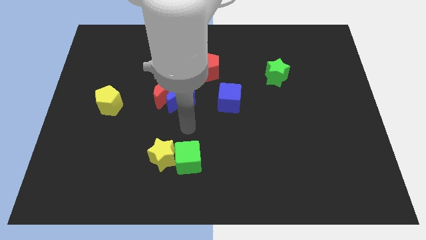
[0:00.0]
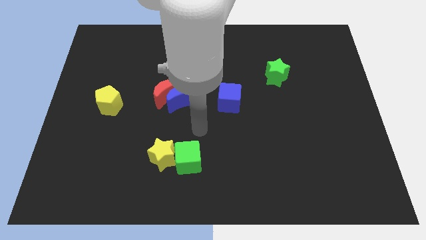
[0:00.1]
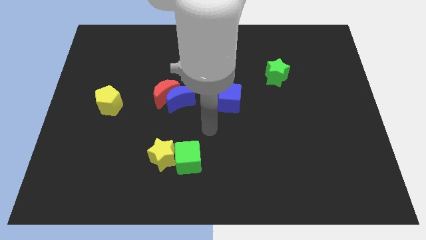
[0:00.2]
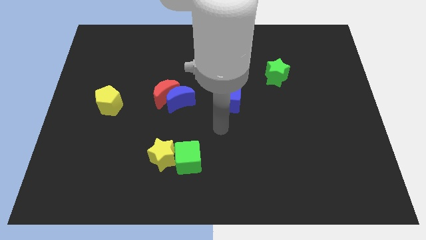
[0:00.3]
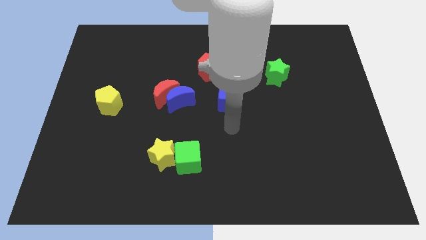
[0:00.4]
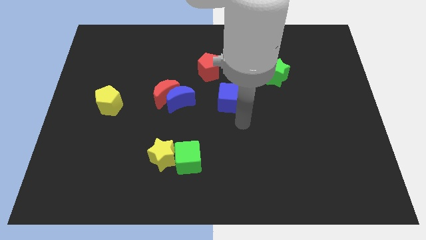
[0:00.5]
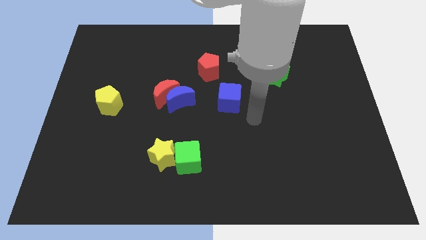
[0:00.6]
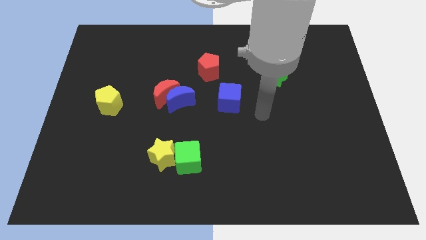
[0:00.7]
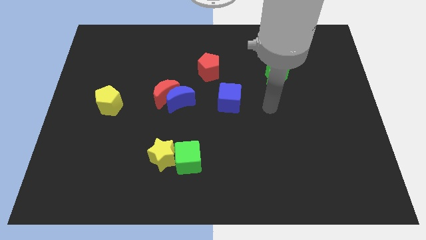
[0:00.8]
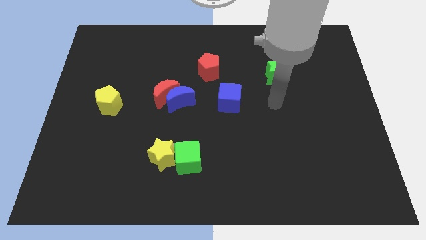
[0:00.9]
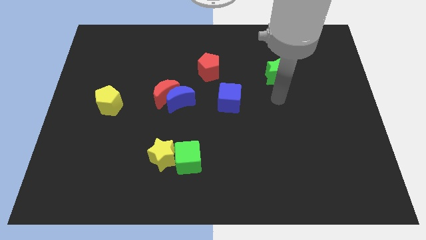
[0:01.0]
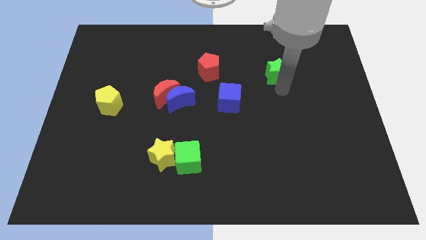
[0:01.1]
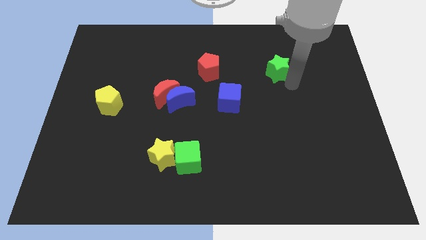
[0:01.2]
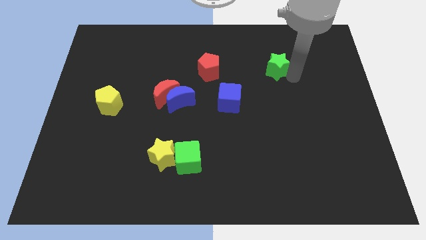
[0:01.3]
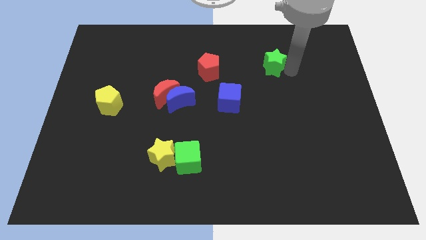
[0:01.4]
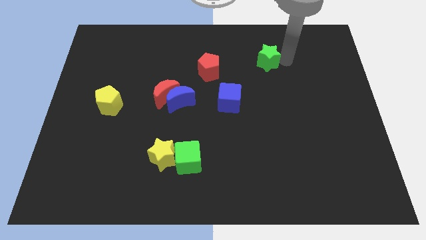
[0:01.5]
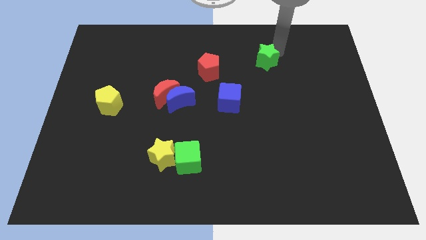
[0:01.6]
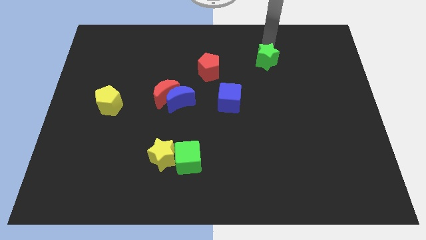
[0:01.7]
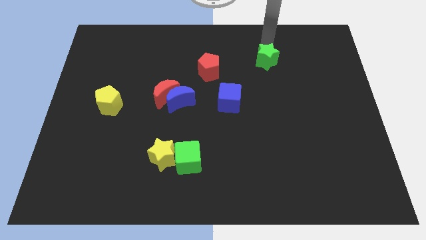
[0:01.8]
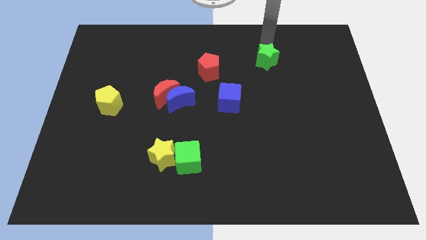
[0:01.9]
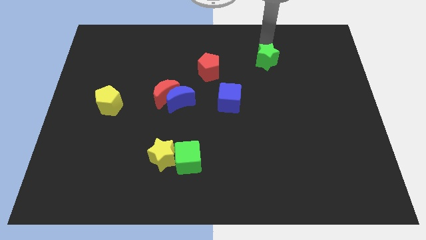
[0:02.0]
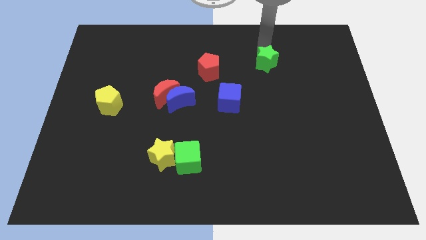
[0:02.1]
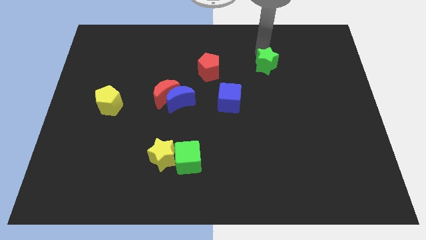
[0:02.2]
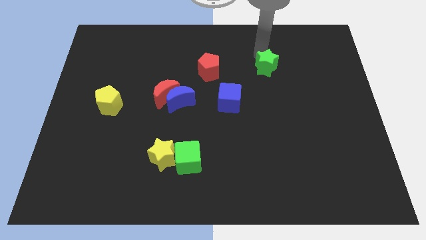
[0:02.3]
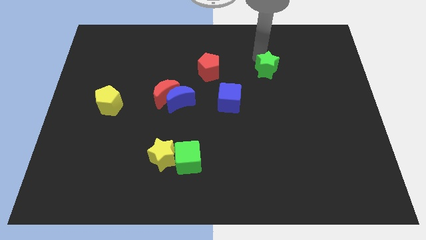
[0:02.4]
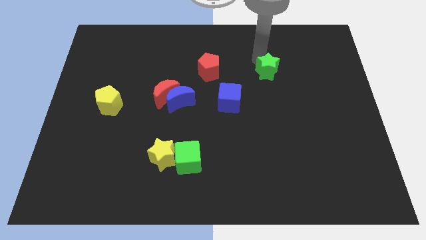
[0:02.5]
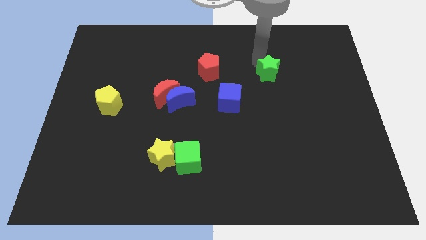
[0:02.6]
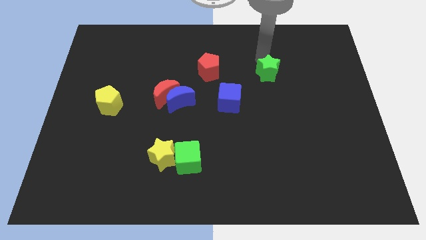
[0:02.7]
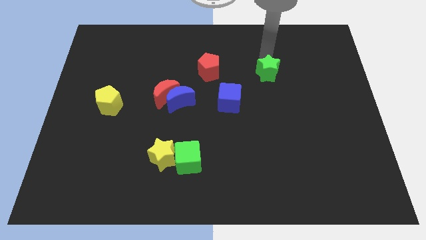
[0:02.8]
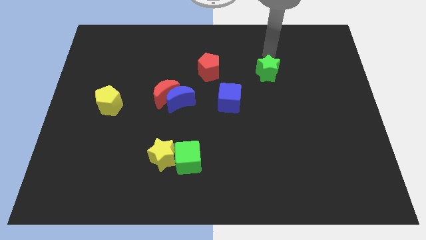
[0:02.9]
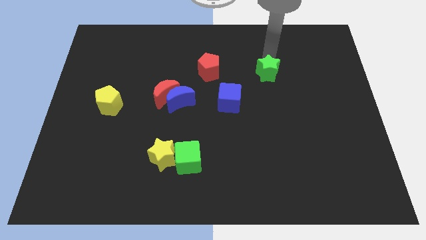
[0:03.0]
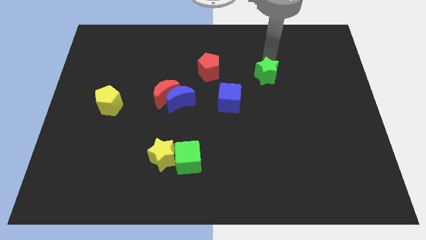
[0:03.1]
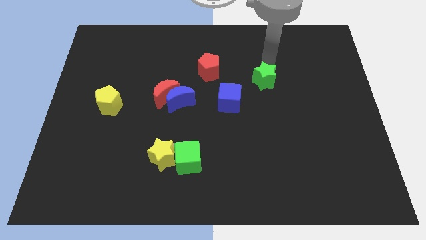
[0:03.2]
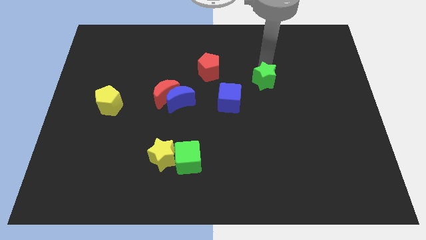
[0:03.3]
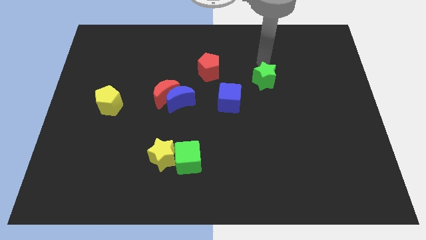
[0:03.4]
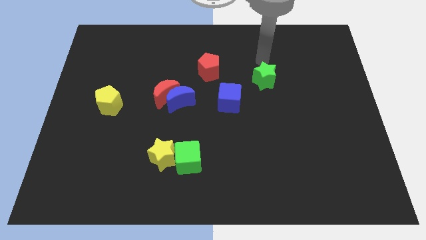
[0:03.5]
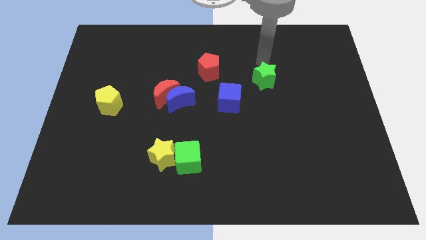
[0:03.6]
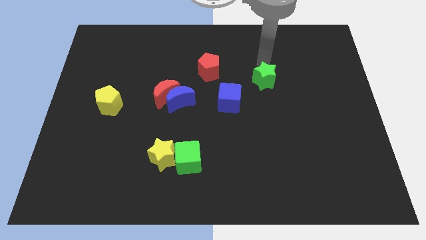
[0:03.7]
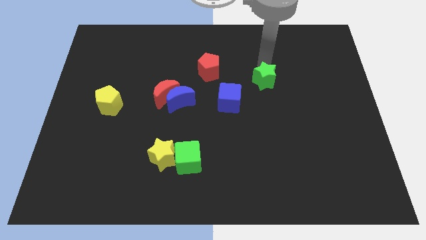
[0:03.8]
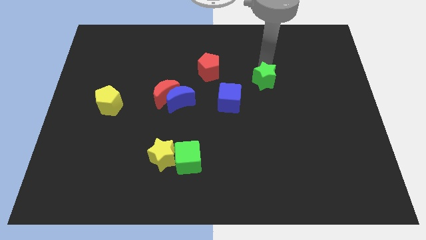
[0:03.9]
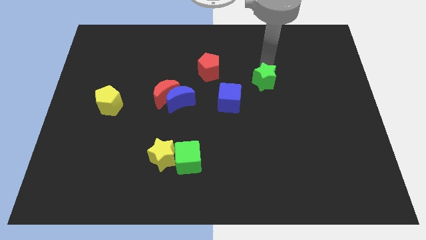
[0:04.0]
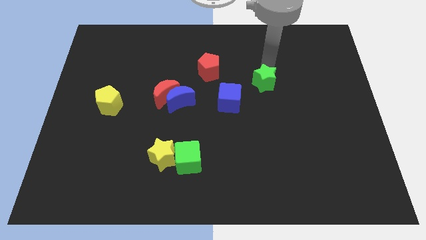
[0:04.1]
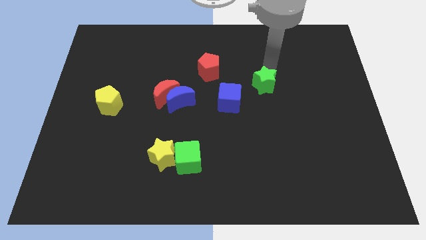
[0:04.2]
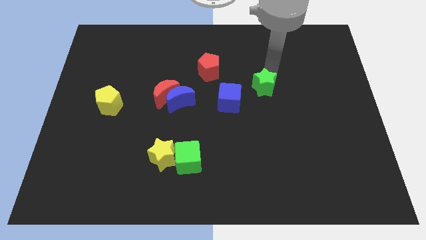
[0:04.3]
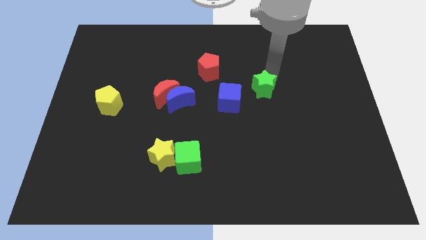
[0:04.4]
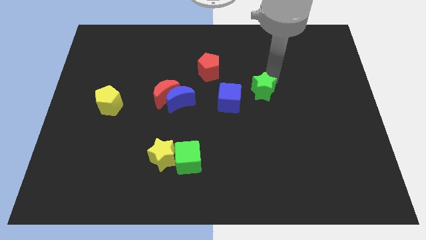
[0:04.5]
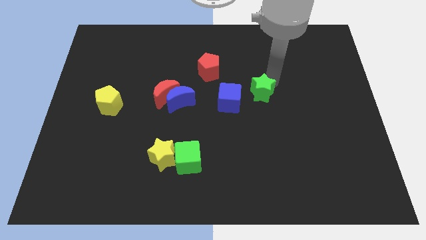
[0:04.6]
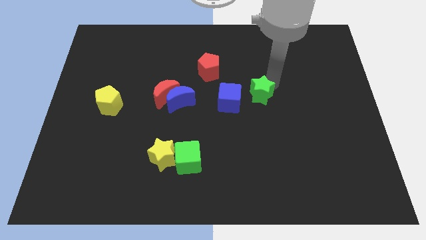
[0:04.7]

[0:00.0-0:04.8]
slightly slide the green star downwards and left

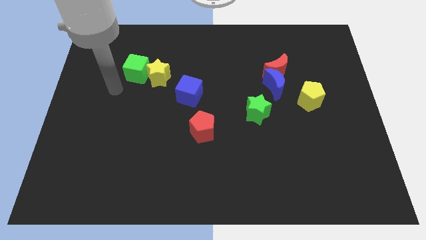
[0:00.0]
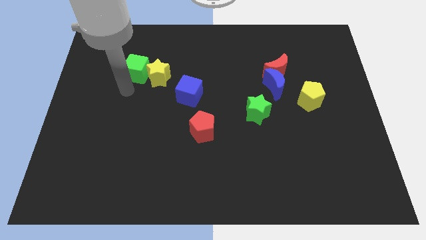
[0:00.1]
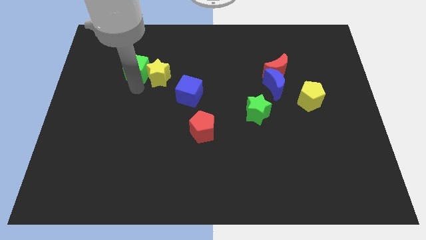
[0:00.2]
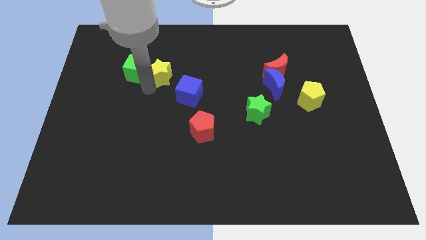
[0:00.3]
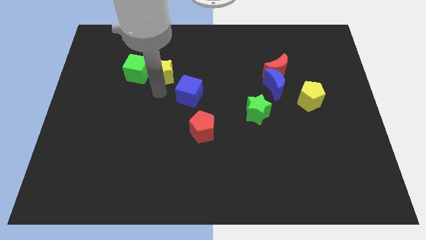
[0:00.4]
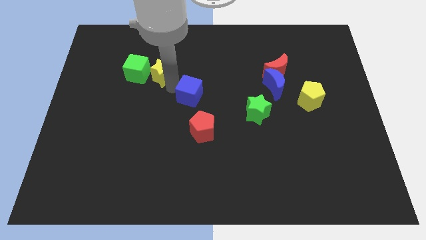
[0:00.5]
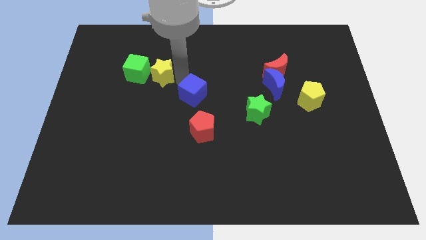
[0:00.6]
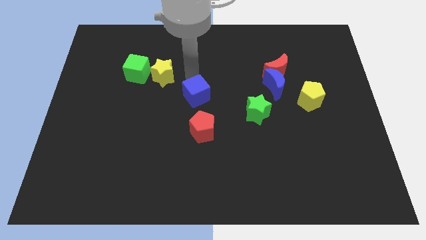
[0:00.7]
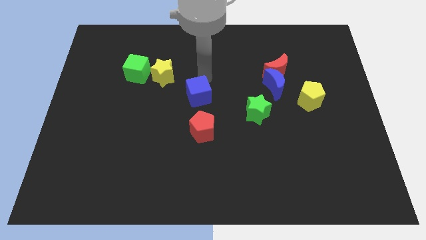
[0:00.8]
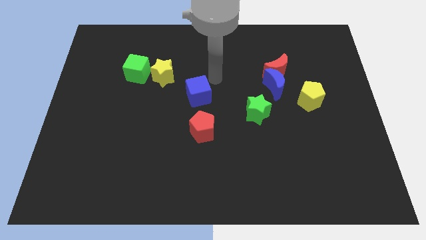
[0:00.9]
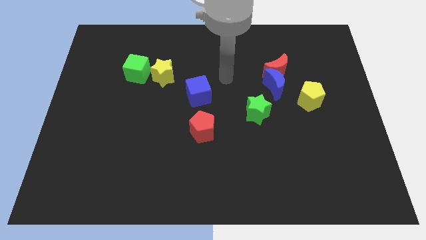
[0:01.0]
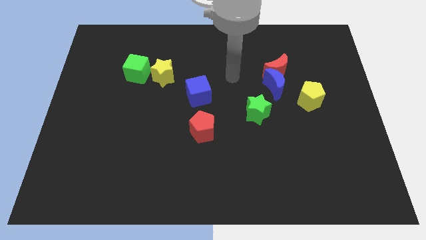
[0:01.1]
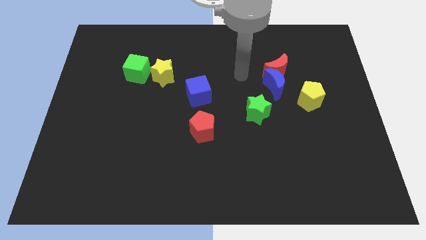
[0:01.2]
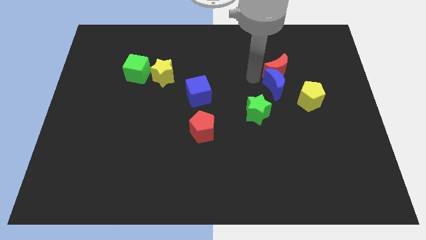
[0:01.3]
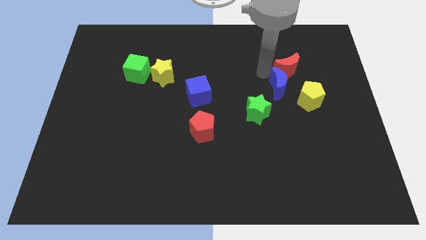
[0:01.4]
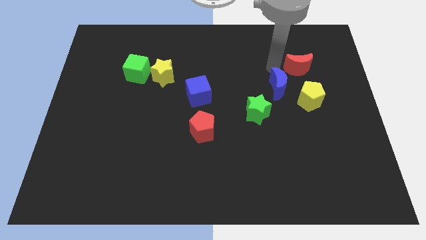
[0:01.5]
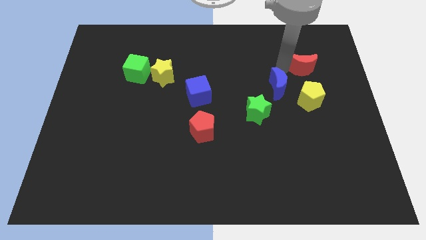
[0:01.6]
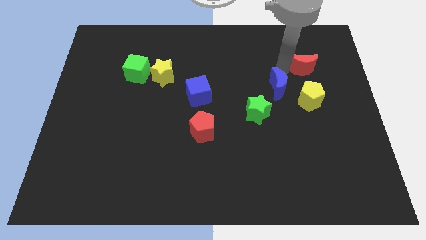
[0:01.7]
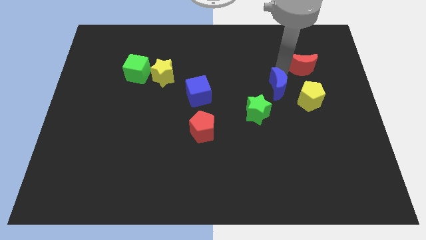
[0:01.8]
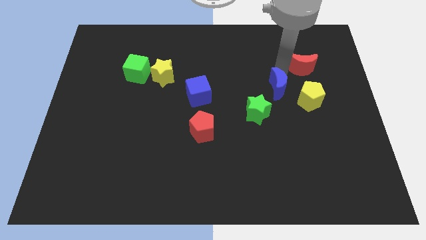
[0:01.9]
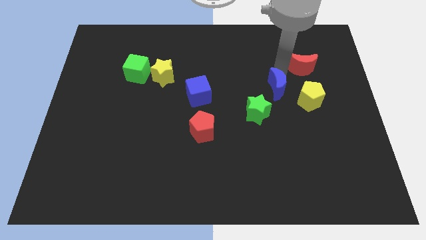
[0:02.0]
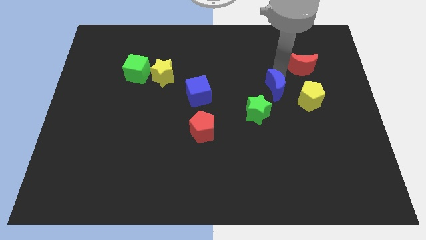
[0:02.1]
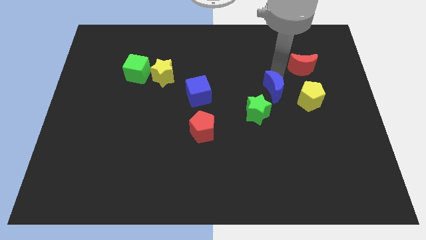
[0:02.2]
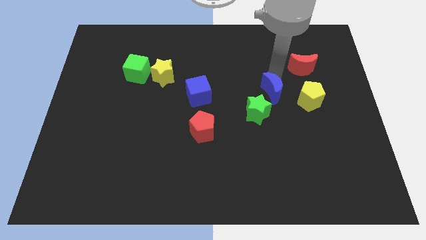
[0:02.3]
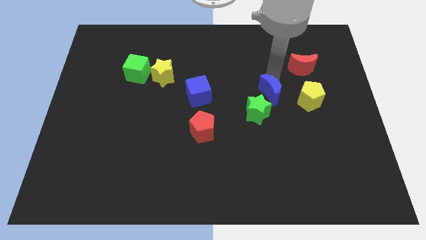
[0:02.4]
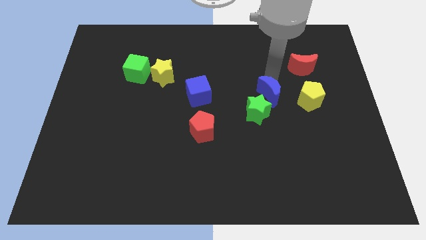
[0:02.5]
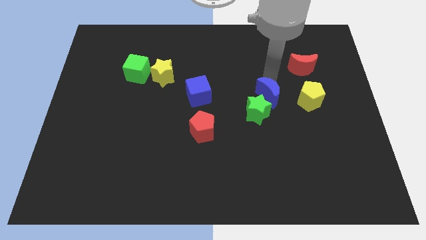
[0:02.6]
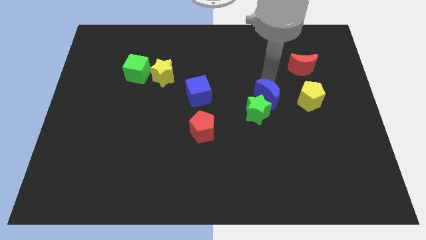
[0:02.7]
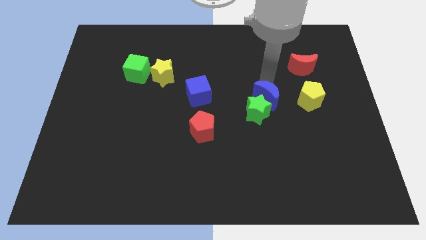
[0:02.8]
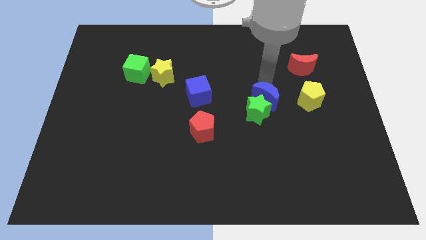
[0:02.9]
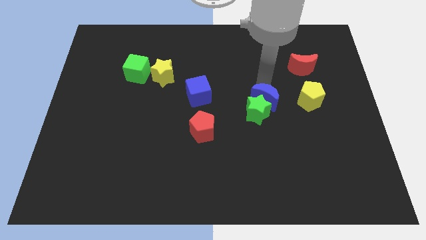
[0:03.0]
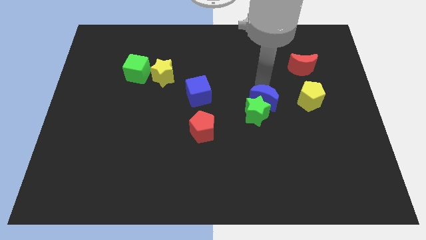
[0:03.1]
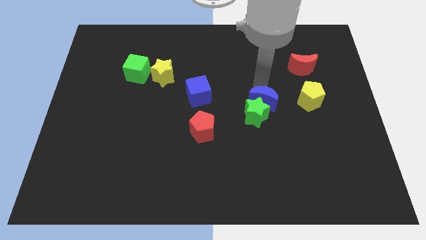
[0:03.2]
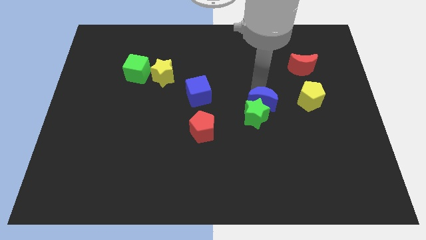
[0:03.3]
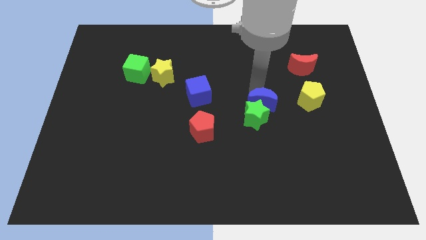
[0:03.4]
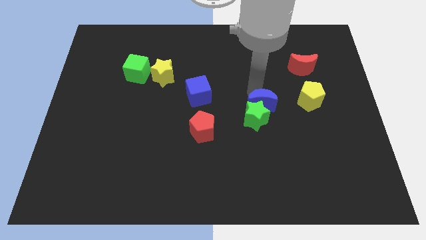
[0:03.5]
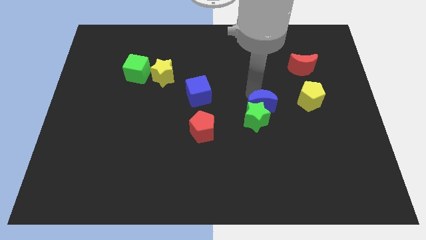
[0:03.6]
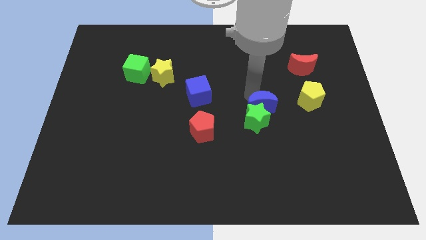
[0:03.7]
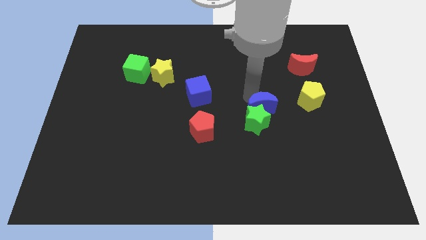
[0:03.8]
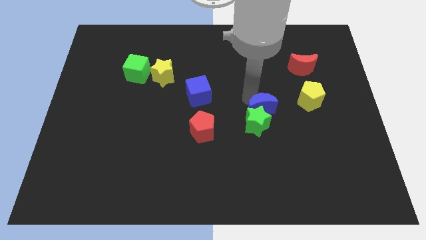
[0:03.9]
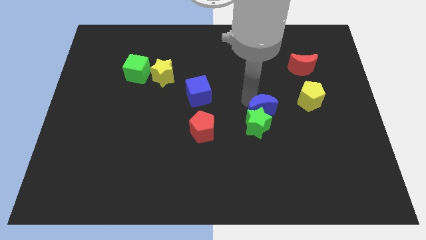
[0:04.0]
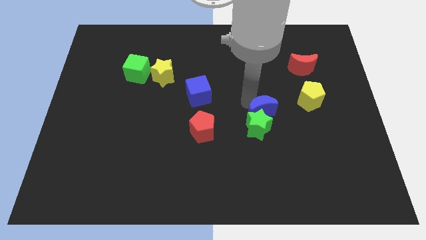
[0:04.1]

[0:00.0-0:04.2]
push the blue moon downwards a little bit
